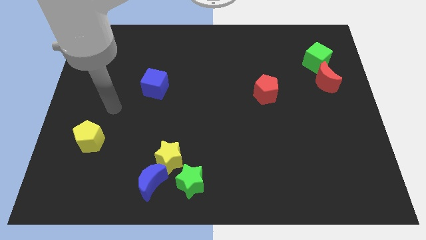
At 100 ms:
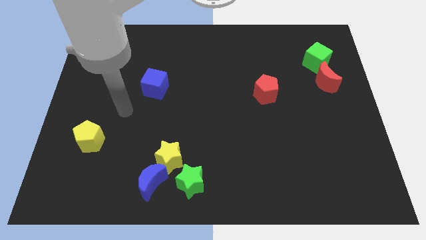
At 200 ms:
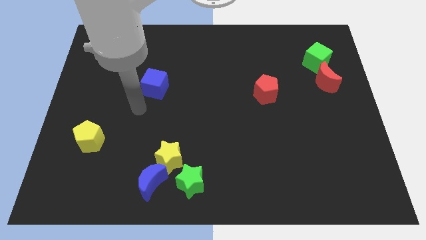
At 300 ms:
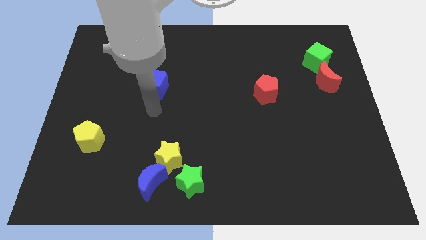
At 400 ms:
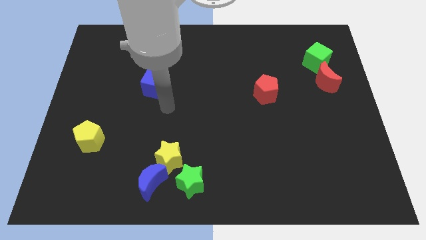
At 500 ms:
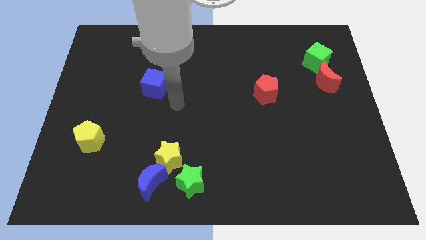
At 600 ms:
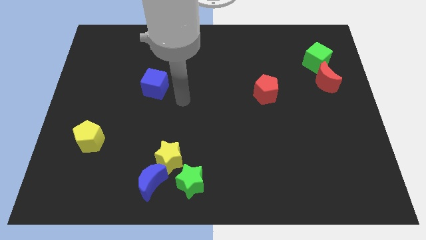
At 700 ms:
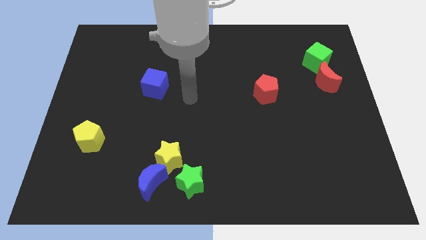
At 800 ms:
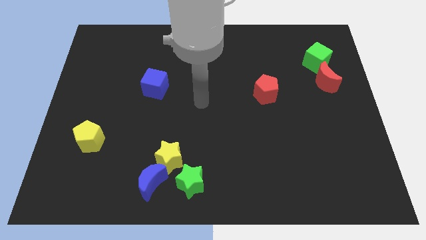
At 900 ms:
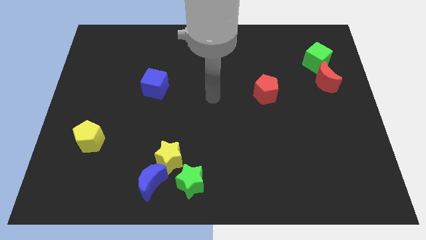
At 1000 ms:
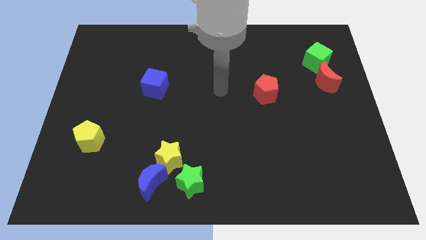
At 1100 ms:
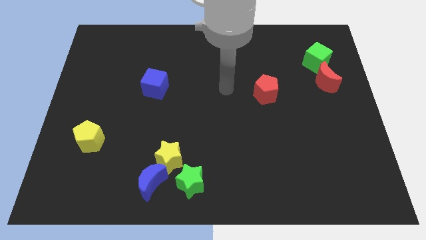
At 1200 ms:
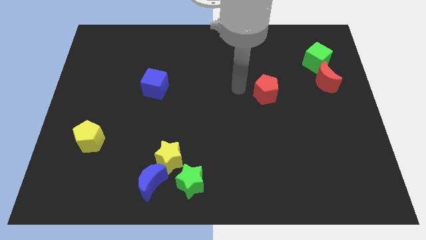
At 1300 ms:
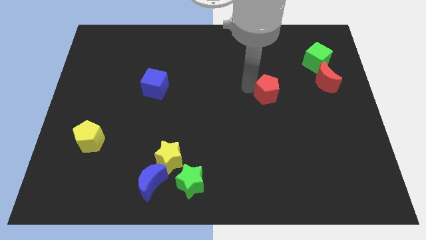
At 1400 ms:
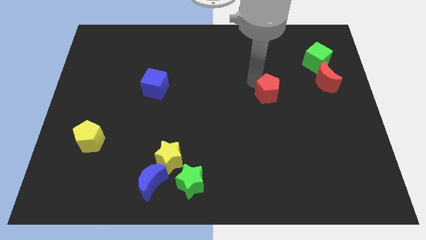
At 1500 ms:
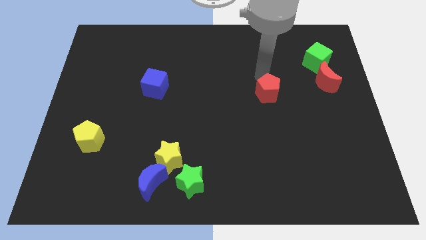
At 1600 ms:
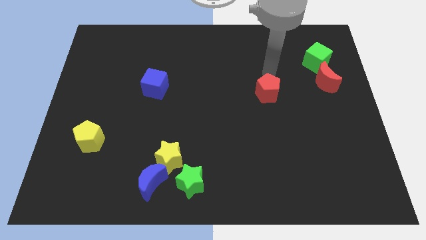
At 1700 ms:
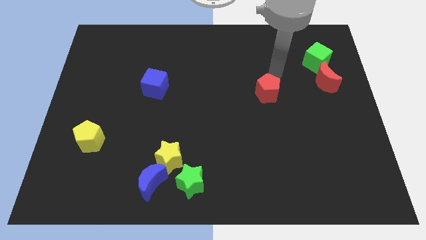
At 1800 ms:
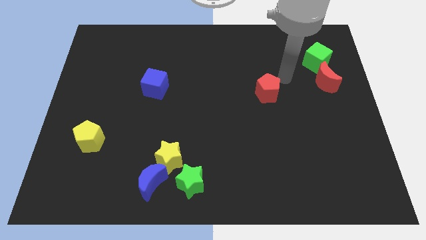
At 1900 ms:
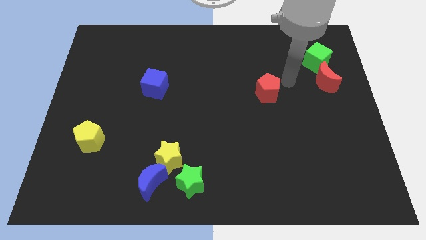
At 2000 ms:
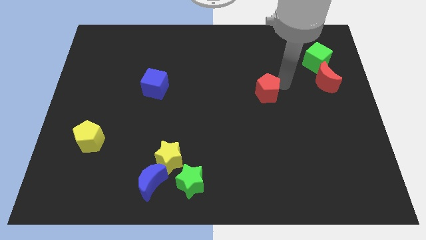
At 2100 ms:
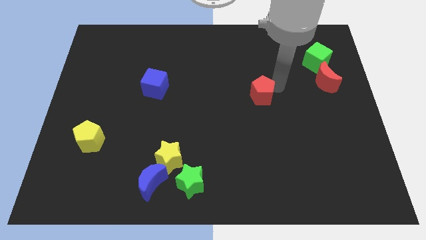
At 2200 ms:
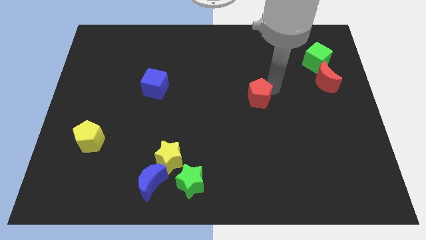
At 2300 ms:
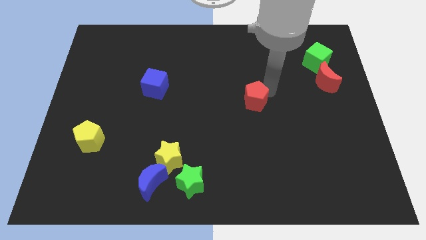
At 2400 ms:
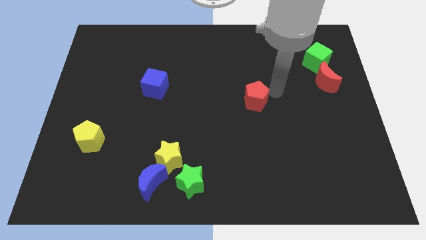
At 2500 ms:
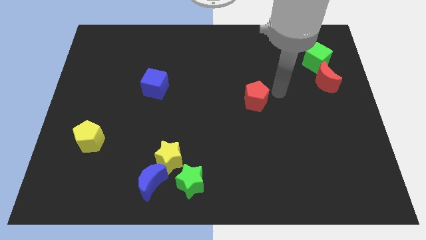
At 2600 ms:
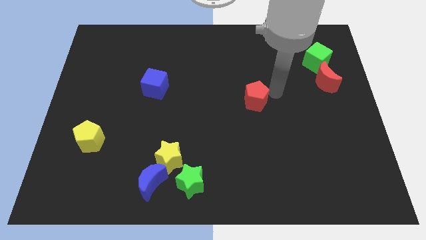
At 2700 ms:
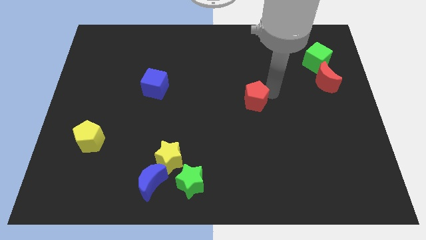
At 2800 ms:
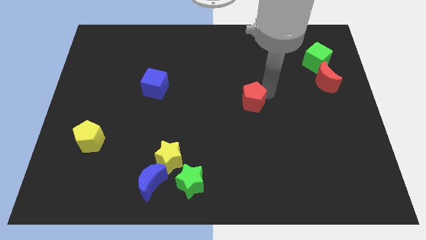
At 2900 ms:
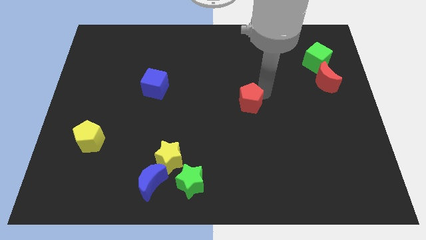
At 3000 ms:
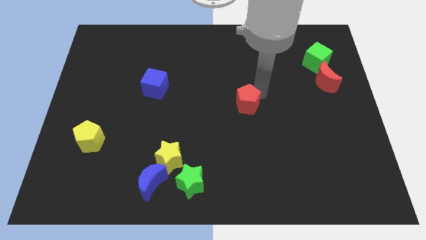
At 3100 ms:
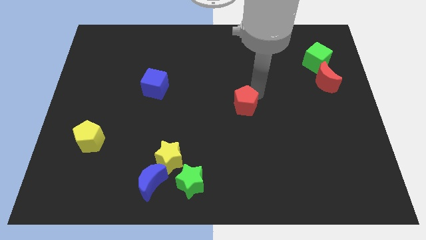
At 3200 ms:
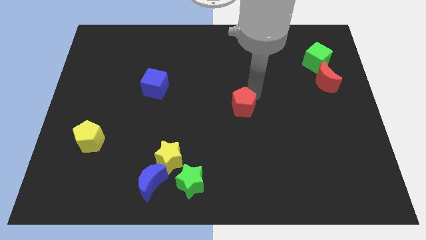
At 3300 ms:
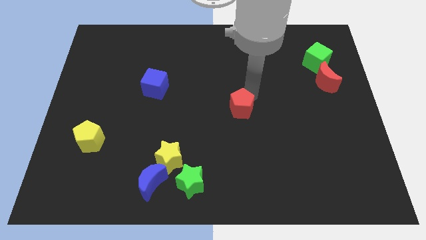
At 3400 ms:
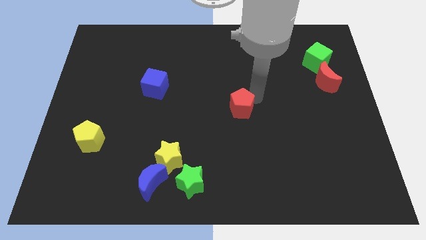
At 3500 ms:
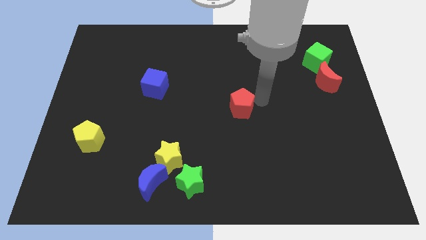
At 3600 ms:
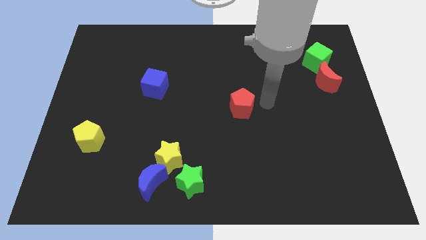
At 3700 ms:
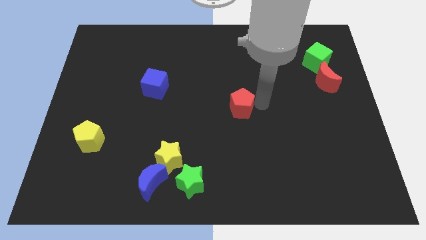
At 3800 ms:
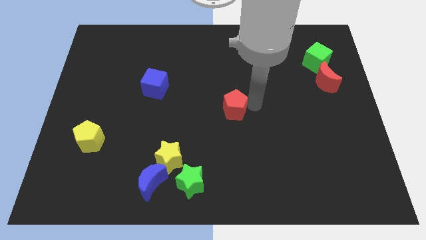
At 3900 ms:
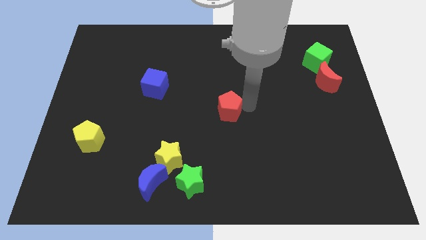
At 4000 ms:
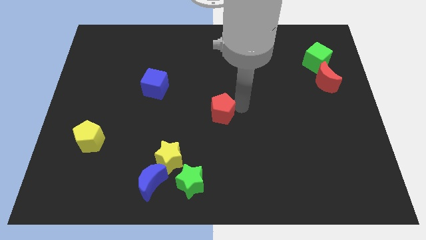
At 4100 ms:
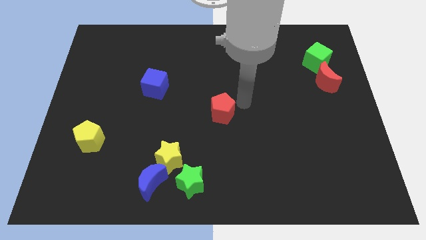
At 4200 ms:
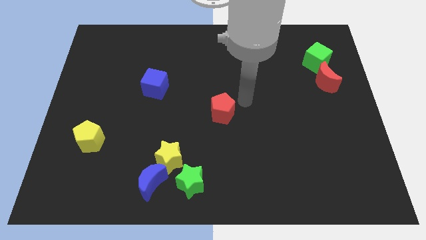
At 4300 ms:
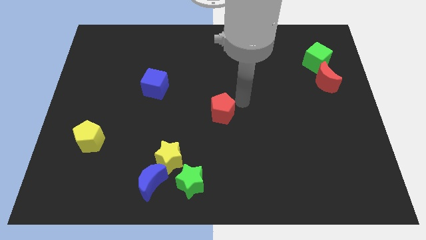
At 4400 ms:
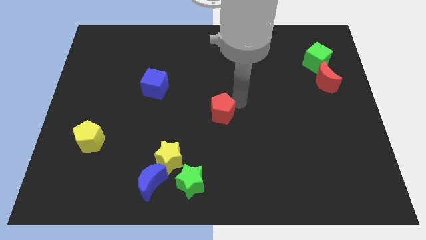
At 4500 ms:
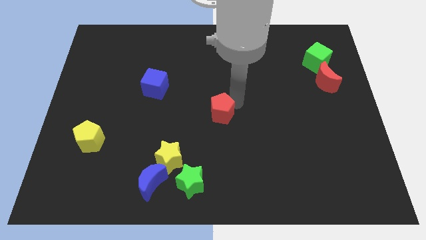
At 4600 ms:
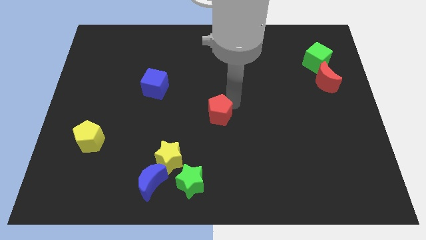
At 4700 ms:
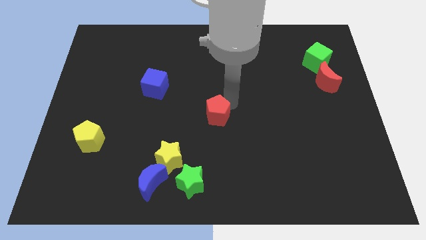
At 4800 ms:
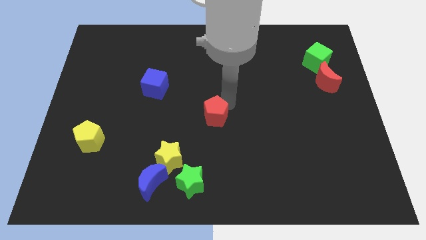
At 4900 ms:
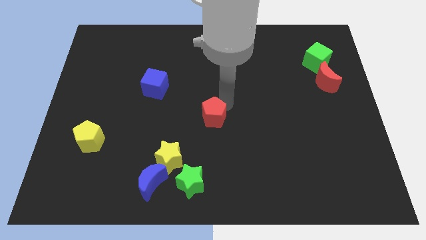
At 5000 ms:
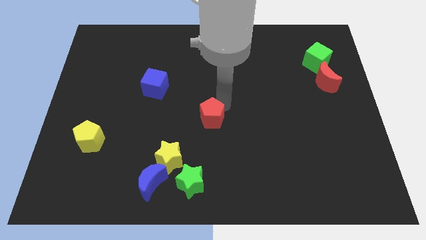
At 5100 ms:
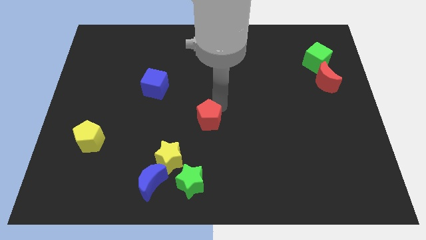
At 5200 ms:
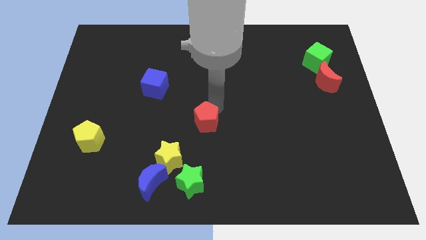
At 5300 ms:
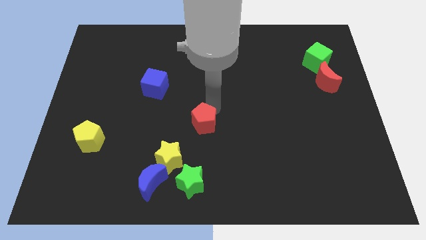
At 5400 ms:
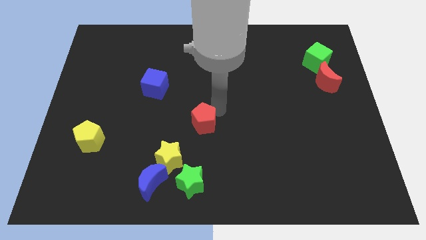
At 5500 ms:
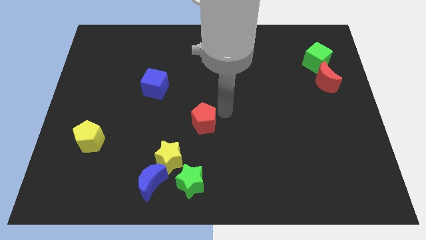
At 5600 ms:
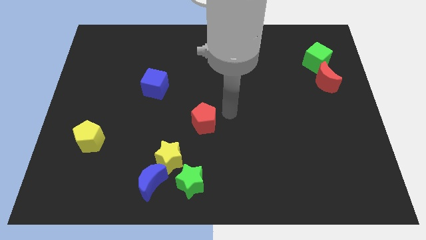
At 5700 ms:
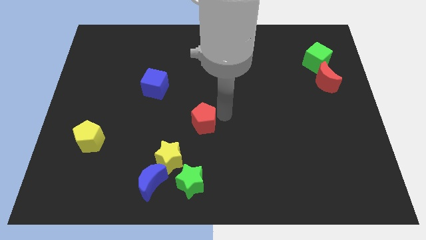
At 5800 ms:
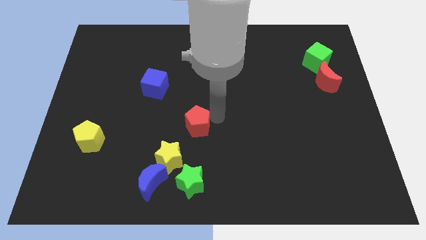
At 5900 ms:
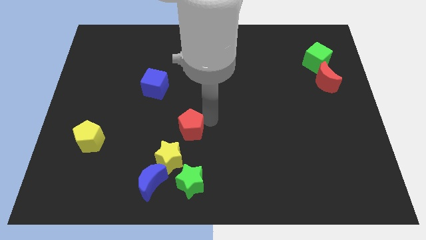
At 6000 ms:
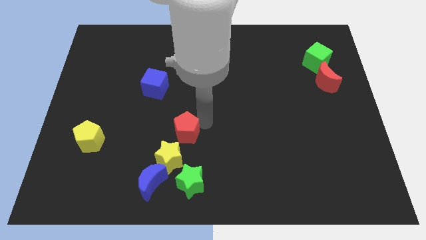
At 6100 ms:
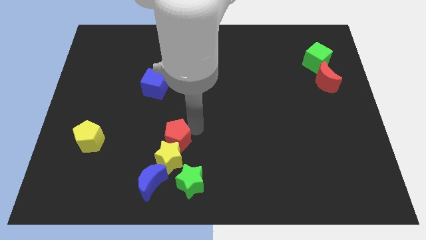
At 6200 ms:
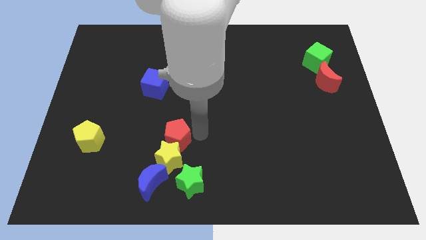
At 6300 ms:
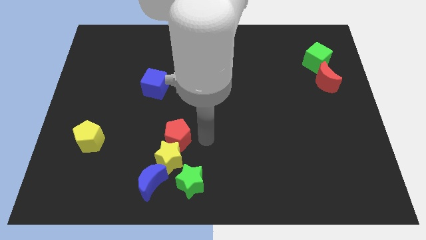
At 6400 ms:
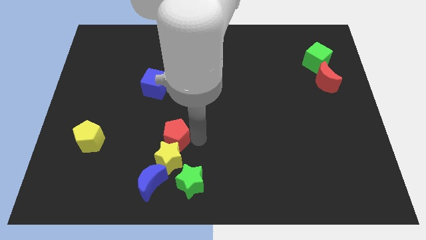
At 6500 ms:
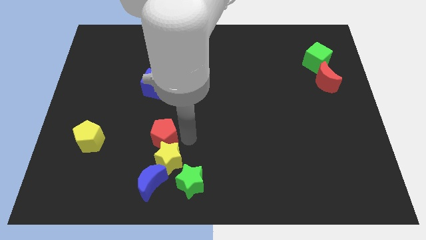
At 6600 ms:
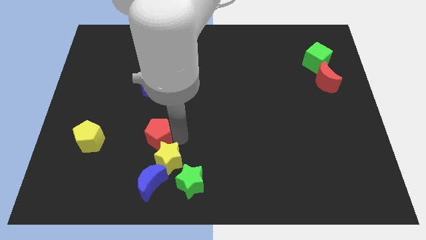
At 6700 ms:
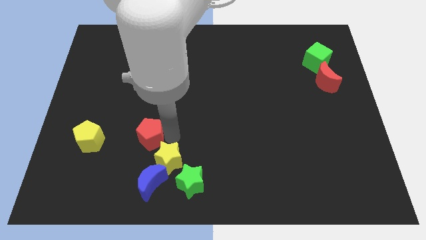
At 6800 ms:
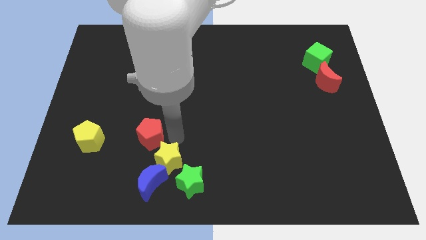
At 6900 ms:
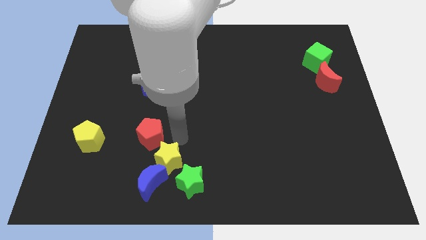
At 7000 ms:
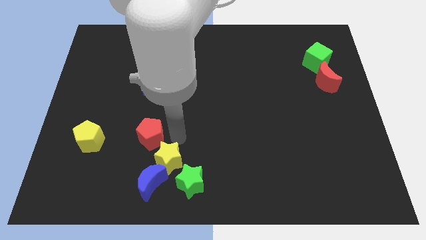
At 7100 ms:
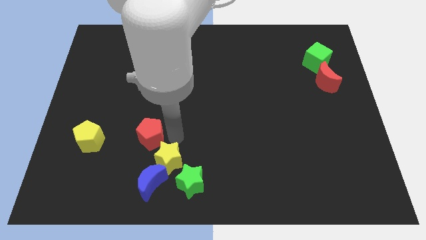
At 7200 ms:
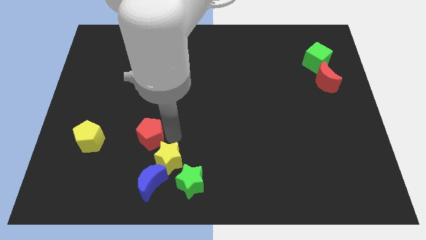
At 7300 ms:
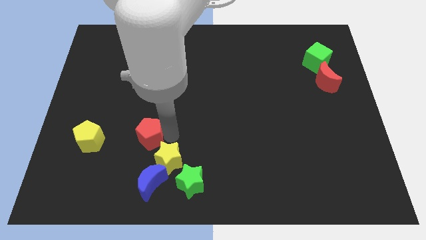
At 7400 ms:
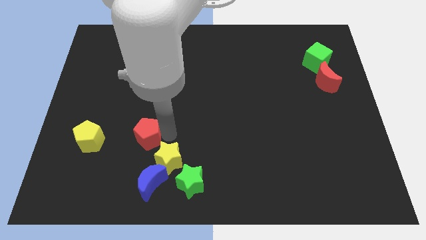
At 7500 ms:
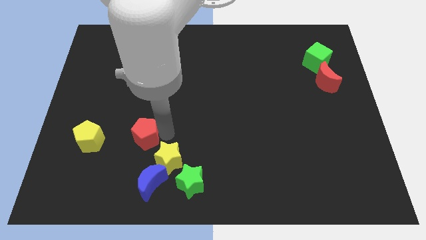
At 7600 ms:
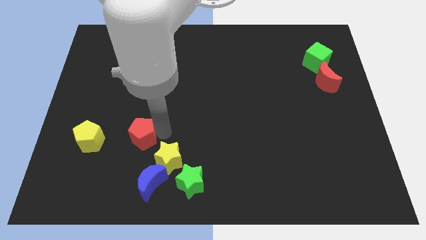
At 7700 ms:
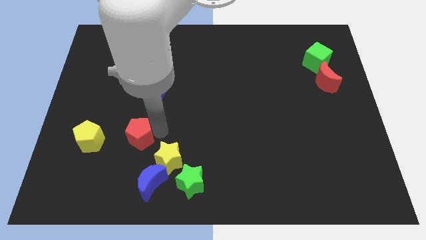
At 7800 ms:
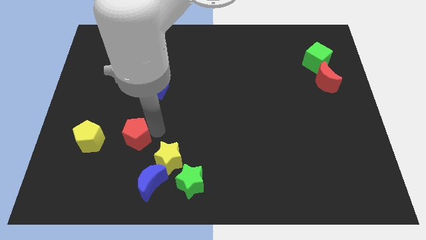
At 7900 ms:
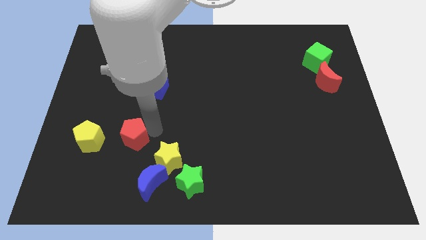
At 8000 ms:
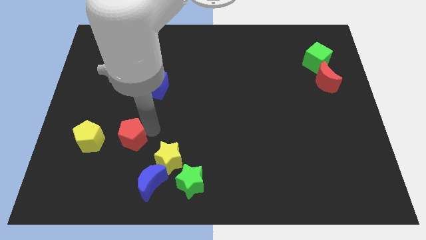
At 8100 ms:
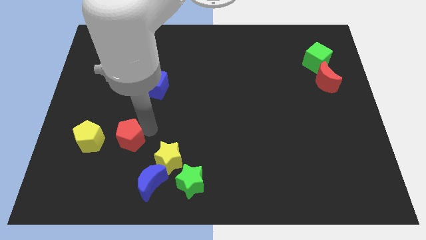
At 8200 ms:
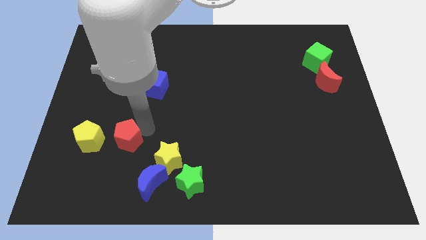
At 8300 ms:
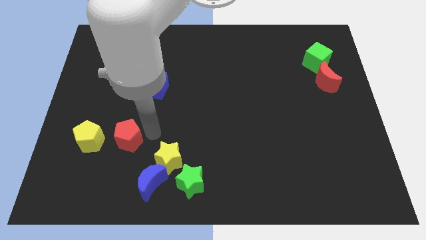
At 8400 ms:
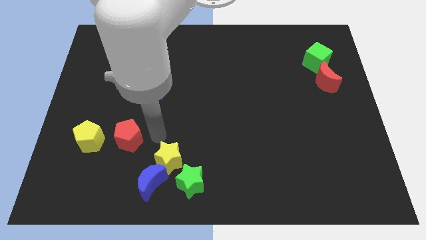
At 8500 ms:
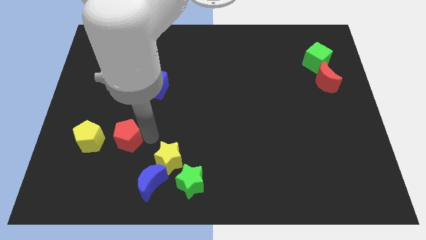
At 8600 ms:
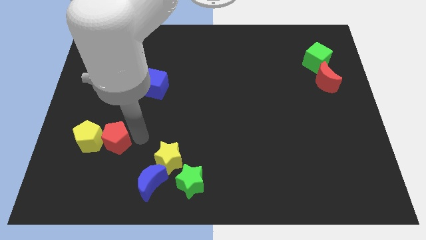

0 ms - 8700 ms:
move the red pentagon to the yellow pentagon
